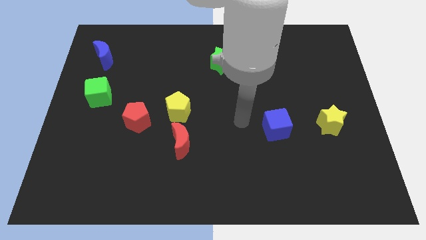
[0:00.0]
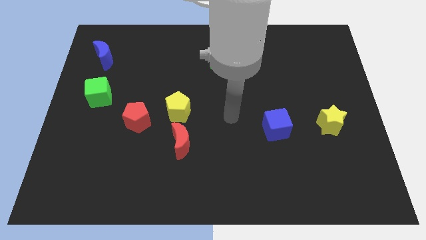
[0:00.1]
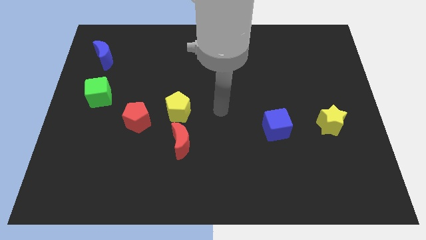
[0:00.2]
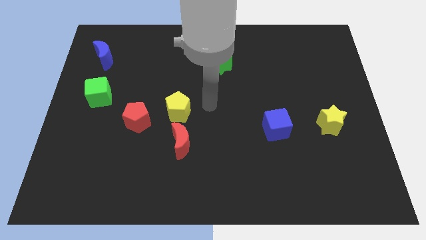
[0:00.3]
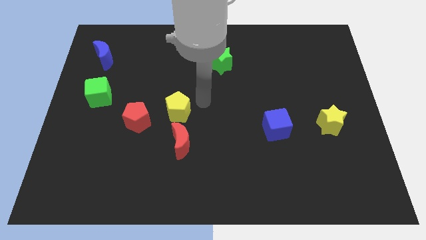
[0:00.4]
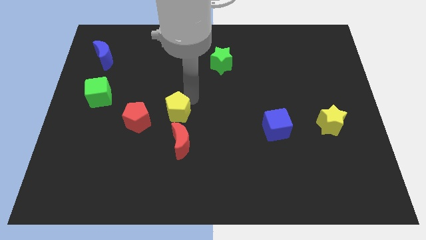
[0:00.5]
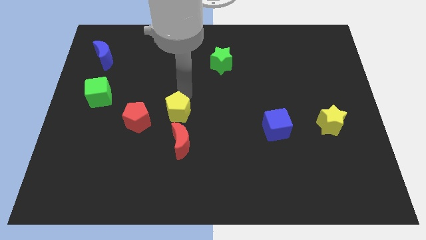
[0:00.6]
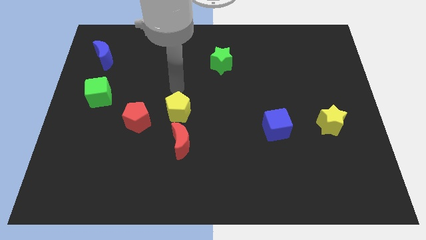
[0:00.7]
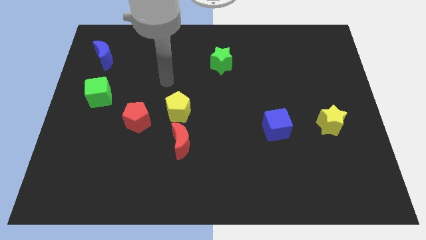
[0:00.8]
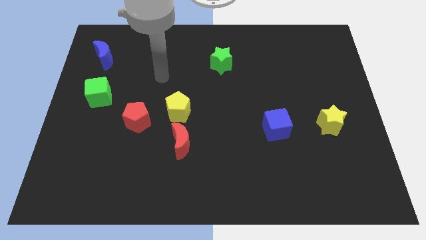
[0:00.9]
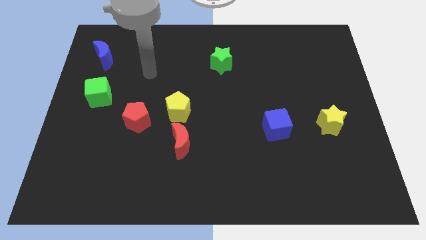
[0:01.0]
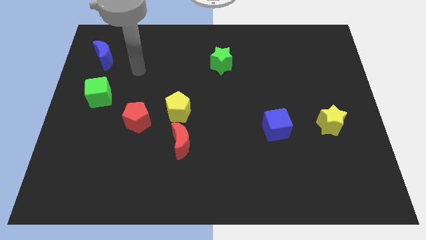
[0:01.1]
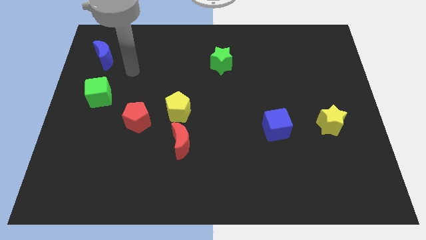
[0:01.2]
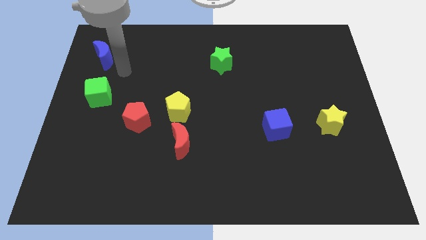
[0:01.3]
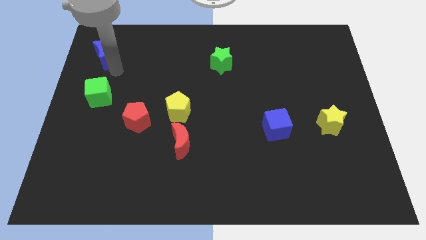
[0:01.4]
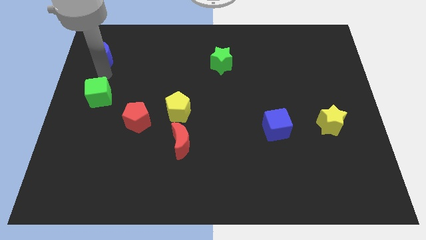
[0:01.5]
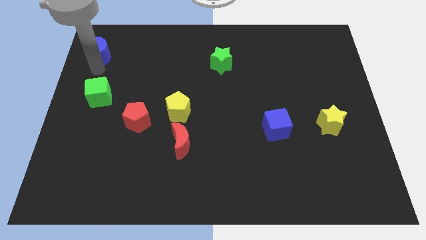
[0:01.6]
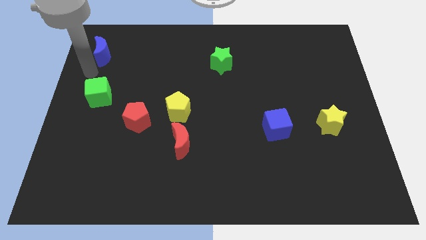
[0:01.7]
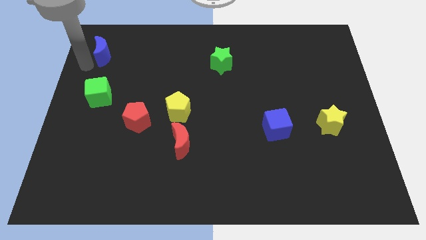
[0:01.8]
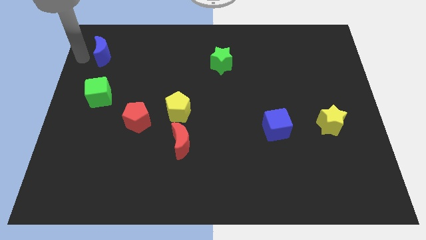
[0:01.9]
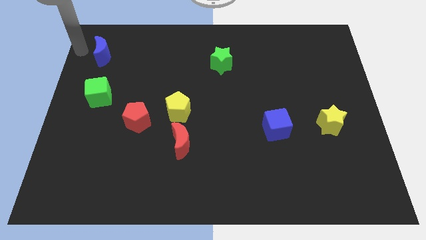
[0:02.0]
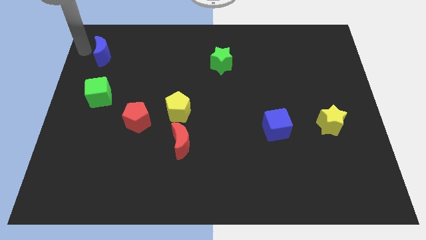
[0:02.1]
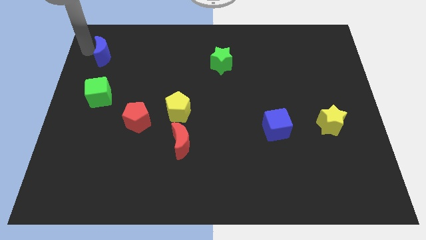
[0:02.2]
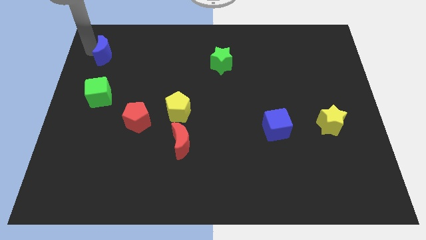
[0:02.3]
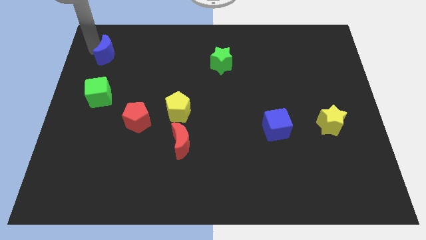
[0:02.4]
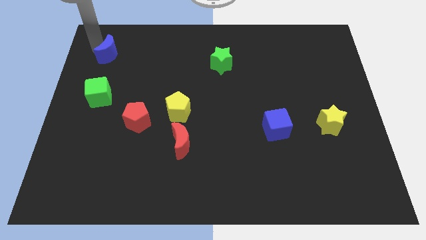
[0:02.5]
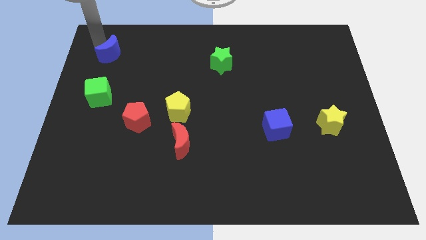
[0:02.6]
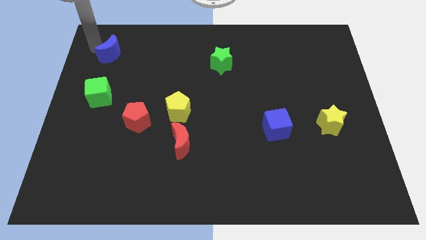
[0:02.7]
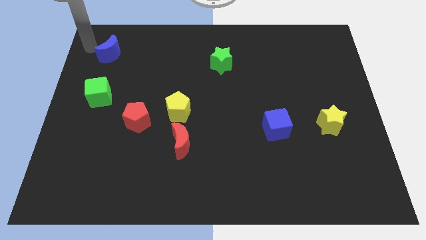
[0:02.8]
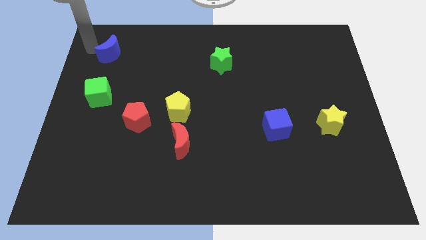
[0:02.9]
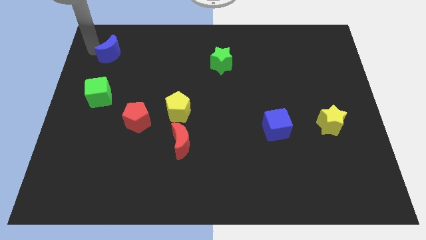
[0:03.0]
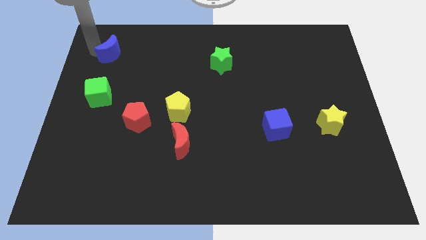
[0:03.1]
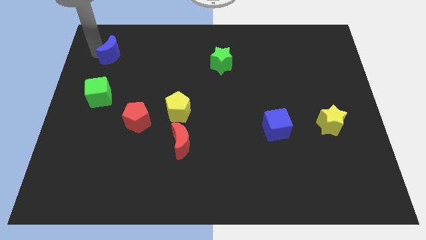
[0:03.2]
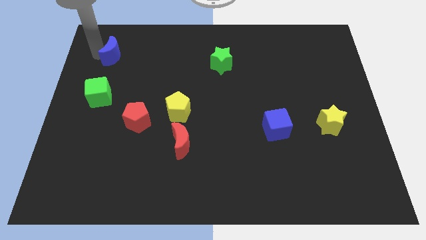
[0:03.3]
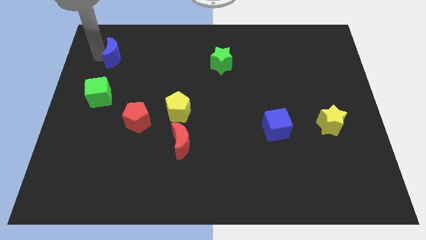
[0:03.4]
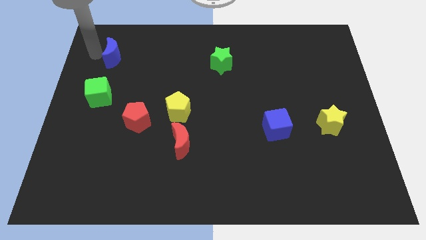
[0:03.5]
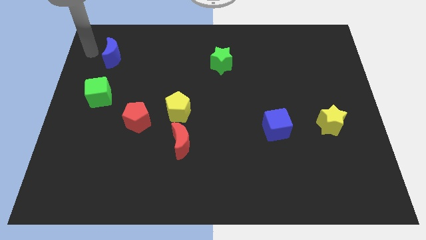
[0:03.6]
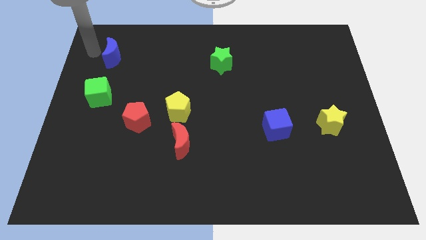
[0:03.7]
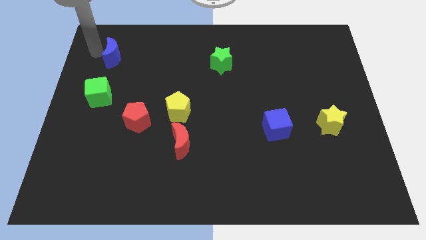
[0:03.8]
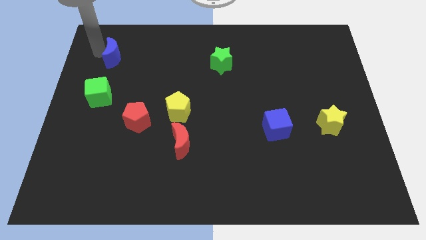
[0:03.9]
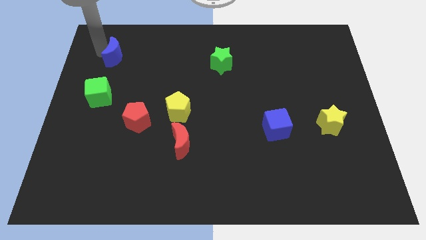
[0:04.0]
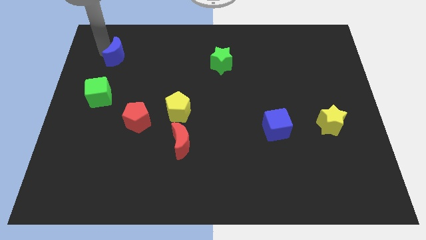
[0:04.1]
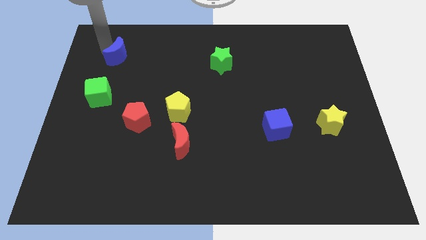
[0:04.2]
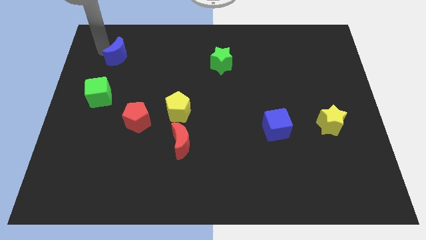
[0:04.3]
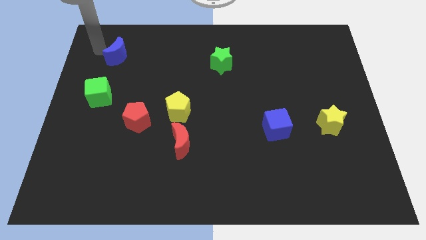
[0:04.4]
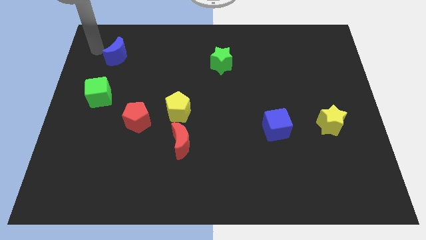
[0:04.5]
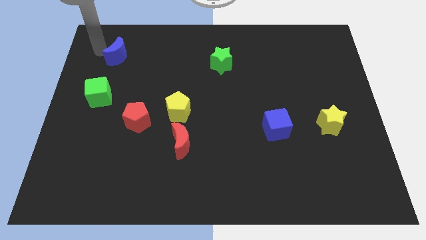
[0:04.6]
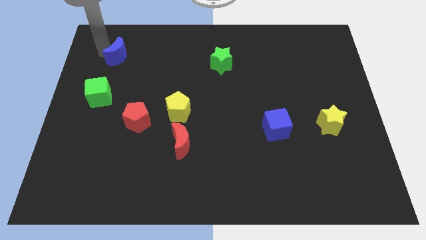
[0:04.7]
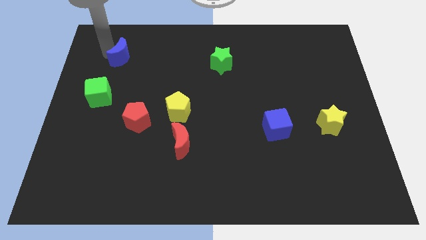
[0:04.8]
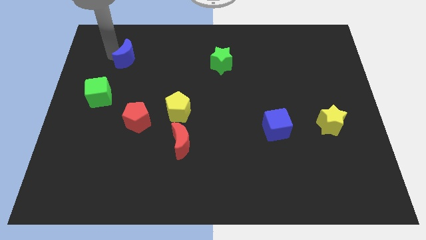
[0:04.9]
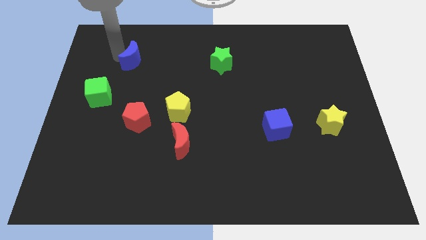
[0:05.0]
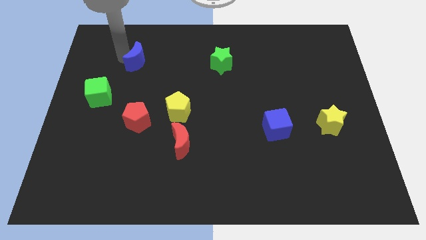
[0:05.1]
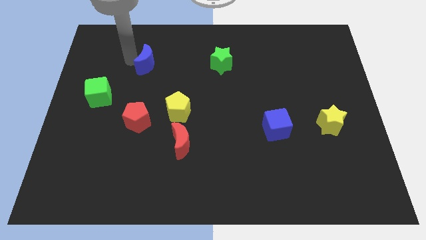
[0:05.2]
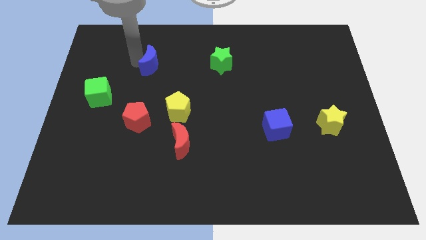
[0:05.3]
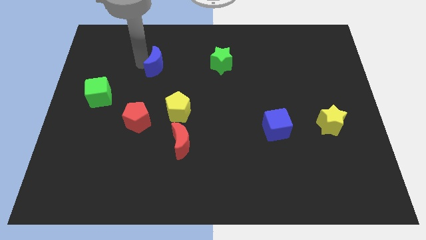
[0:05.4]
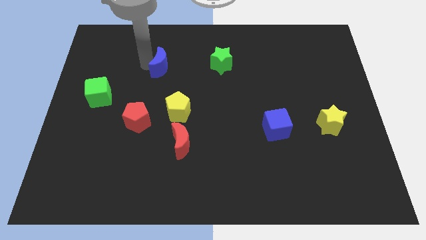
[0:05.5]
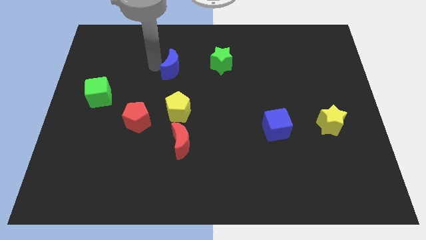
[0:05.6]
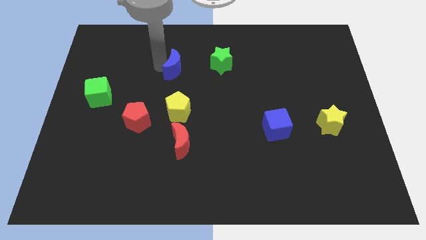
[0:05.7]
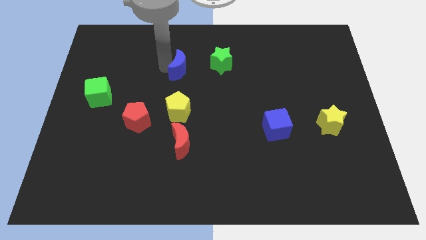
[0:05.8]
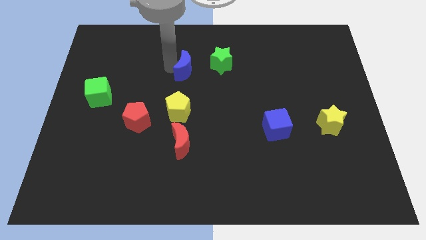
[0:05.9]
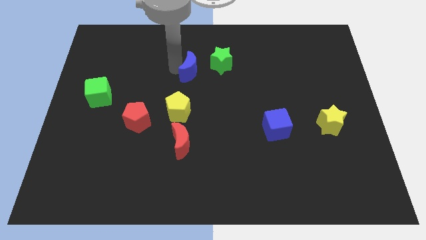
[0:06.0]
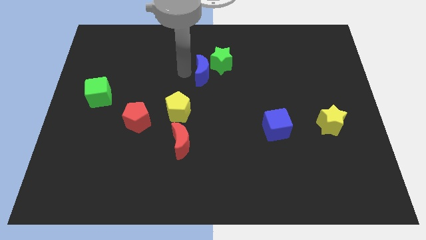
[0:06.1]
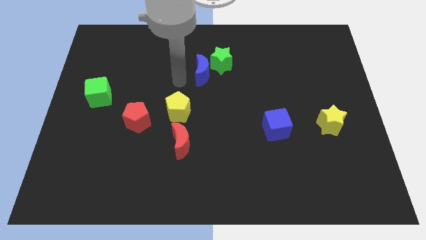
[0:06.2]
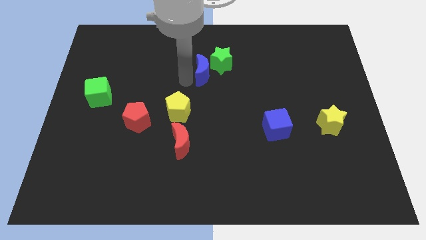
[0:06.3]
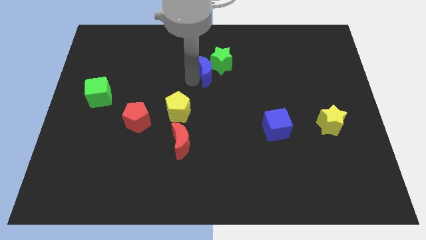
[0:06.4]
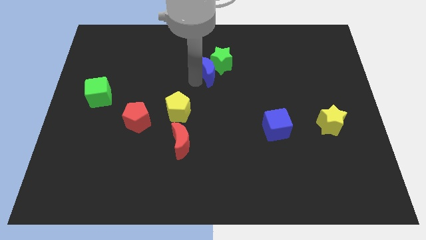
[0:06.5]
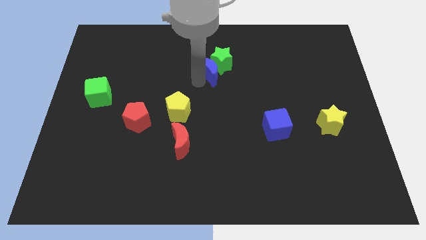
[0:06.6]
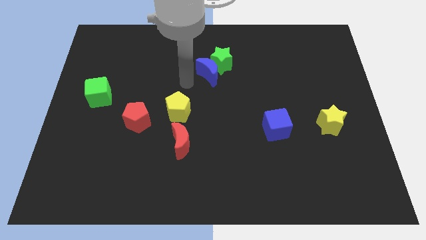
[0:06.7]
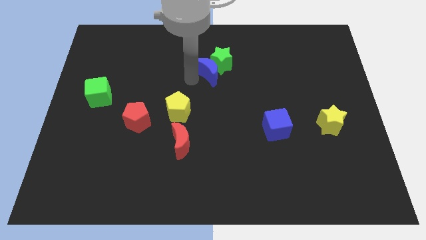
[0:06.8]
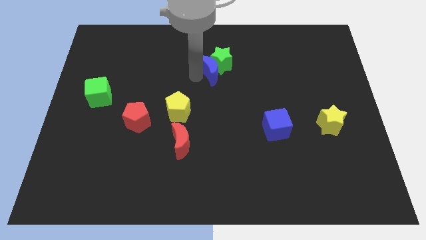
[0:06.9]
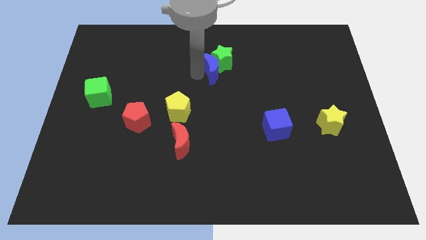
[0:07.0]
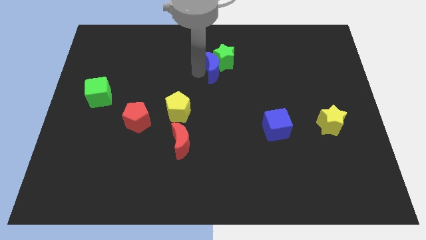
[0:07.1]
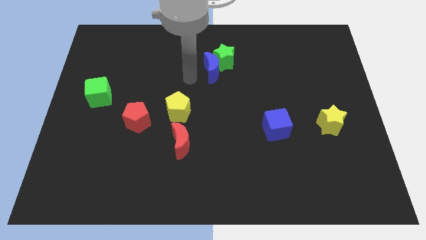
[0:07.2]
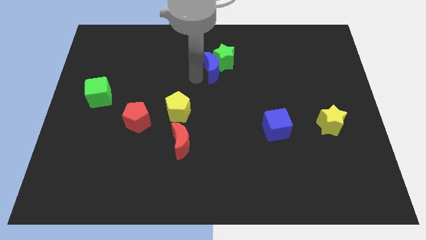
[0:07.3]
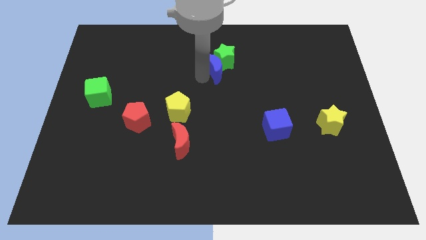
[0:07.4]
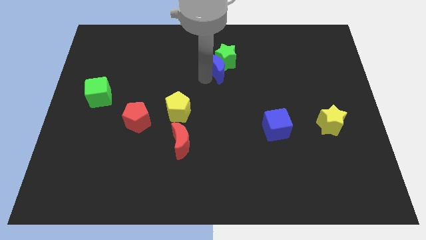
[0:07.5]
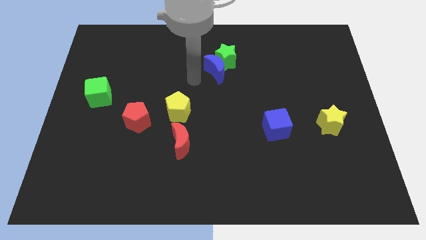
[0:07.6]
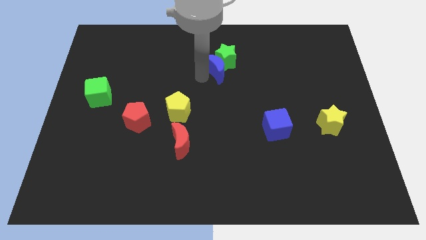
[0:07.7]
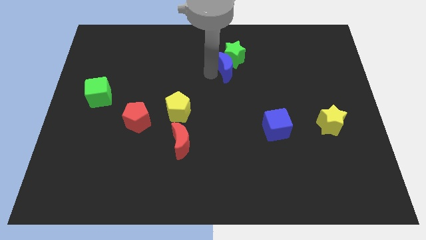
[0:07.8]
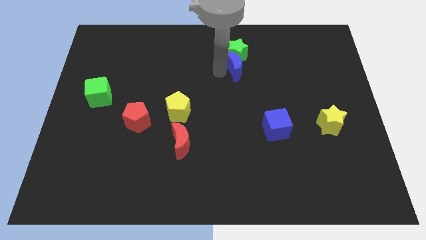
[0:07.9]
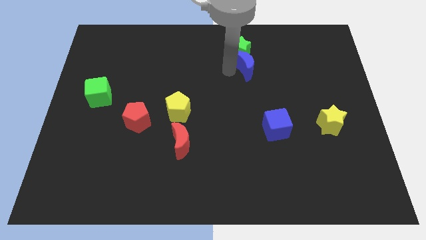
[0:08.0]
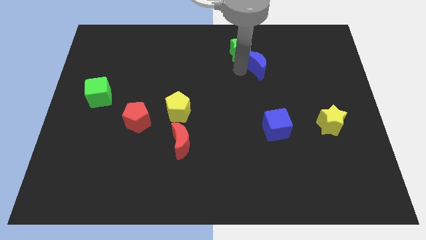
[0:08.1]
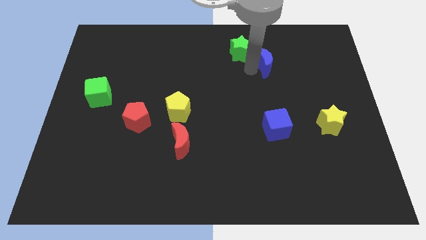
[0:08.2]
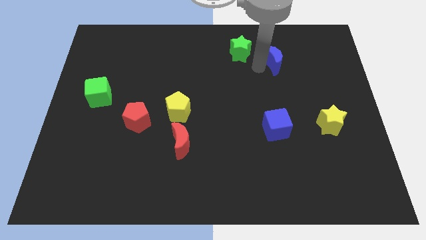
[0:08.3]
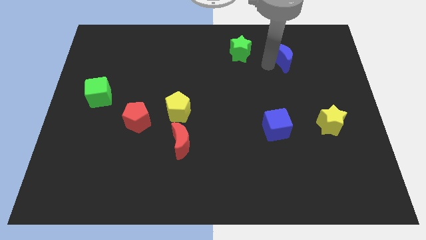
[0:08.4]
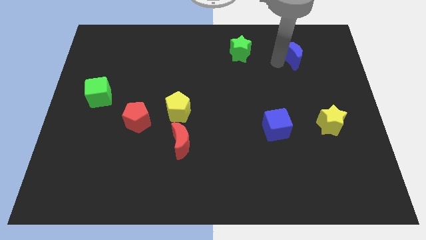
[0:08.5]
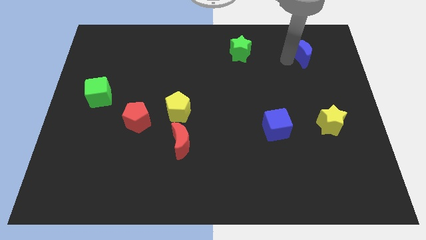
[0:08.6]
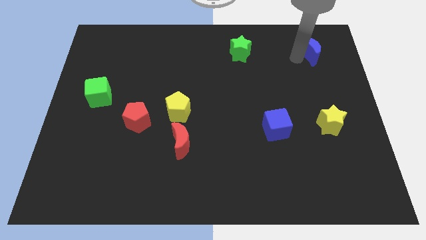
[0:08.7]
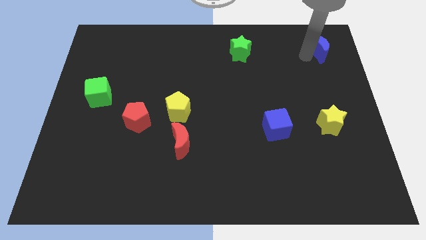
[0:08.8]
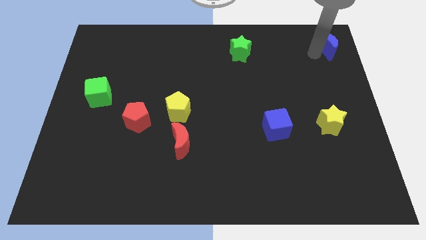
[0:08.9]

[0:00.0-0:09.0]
put the blue moon to the upper right corner
